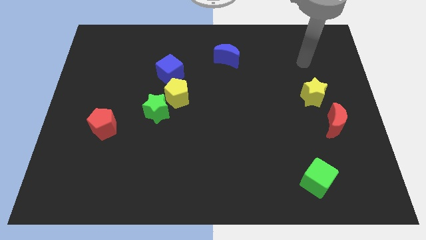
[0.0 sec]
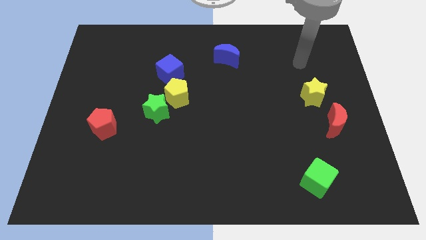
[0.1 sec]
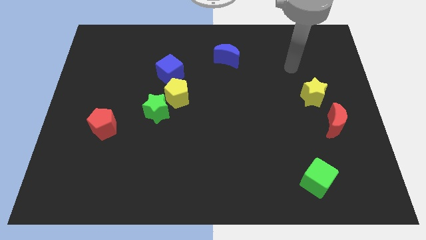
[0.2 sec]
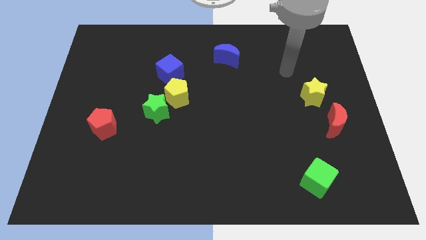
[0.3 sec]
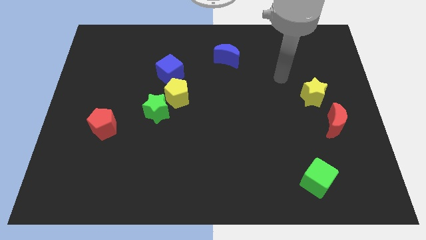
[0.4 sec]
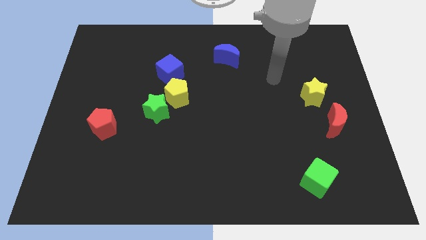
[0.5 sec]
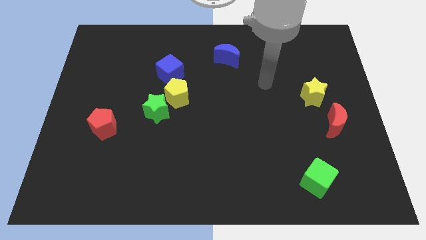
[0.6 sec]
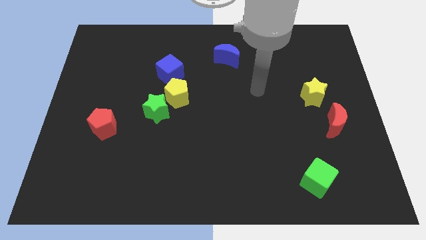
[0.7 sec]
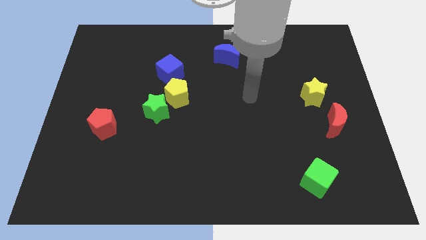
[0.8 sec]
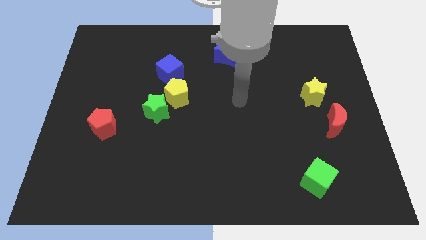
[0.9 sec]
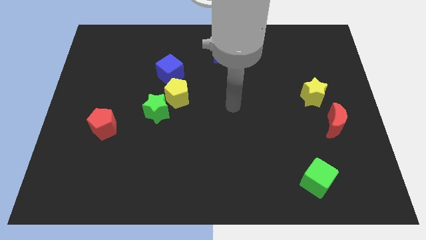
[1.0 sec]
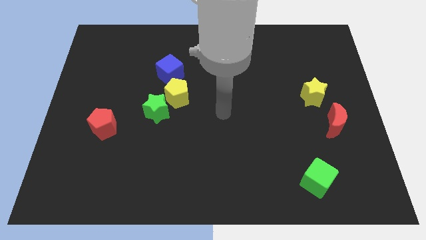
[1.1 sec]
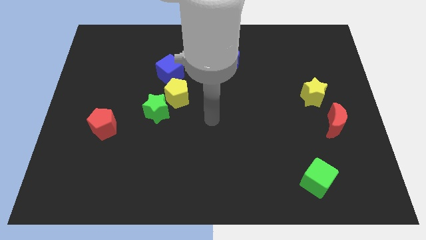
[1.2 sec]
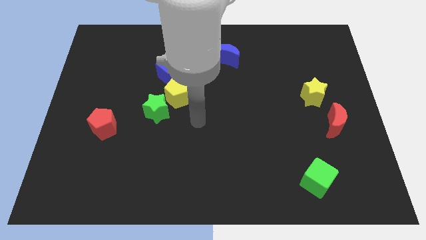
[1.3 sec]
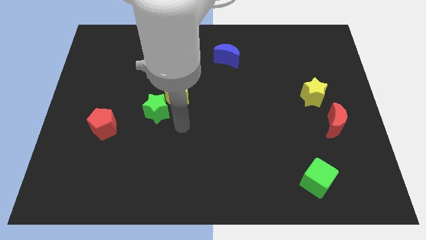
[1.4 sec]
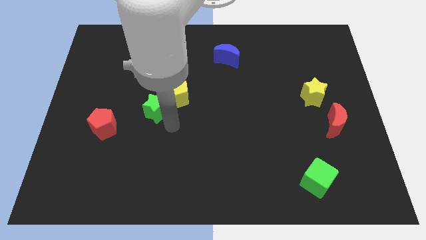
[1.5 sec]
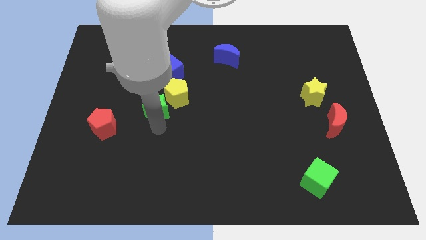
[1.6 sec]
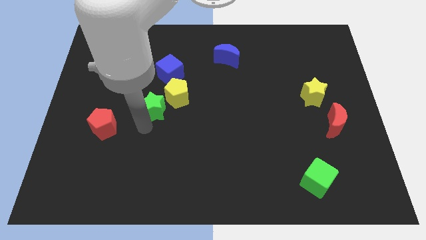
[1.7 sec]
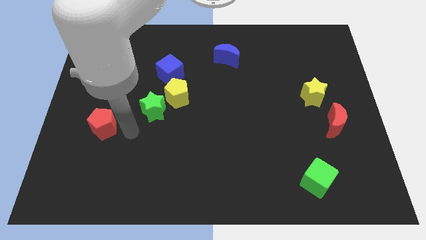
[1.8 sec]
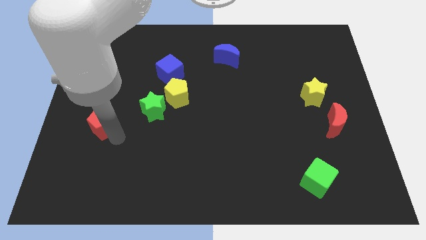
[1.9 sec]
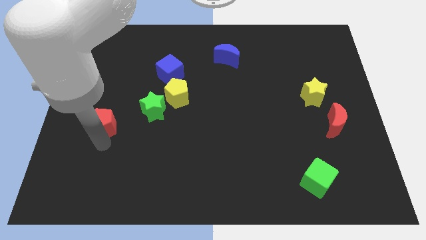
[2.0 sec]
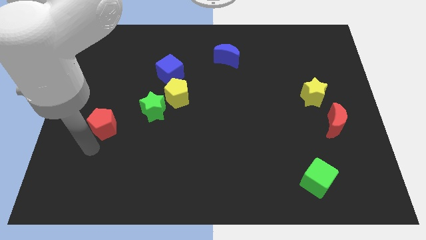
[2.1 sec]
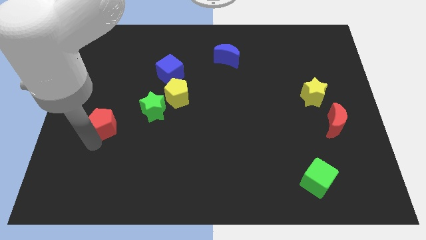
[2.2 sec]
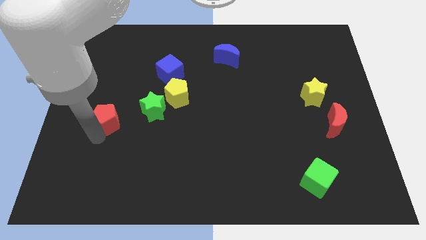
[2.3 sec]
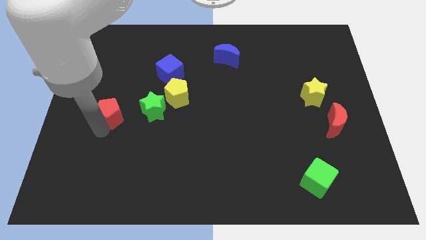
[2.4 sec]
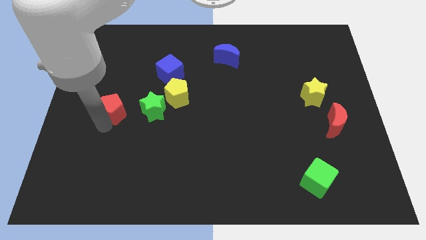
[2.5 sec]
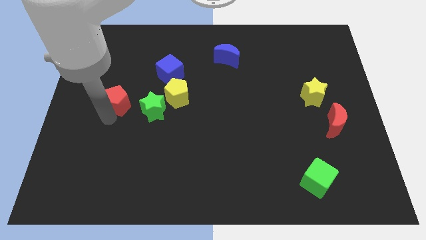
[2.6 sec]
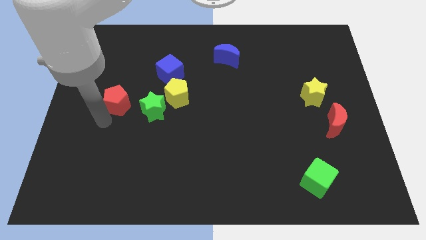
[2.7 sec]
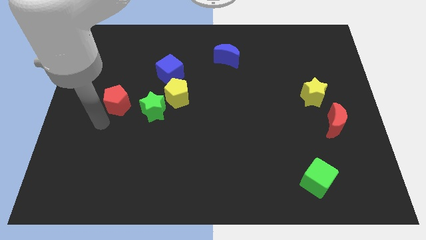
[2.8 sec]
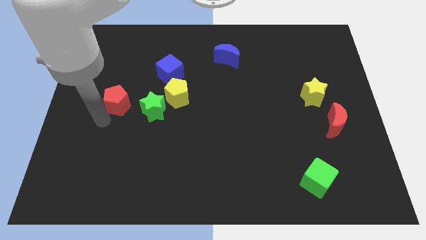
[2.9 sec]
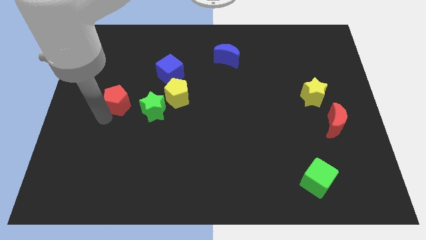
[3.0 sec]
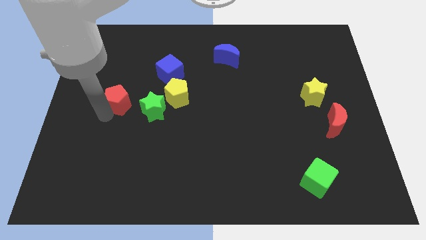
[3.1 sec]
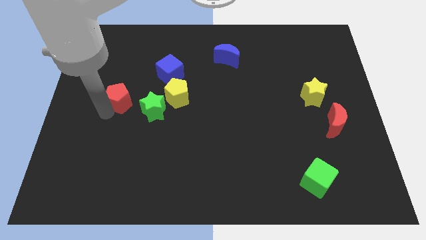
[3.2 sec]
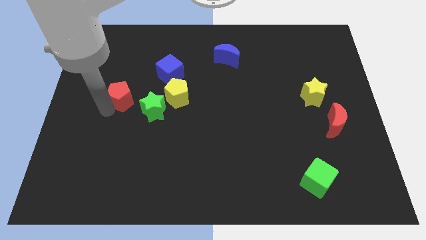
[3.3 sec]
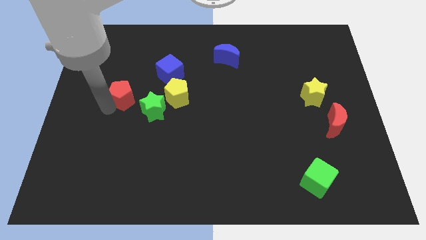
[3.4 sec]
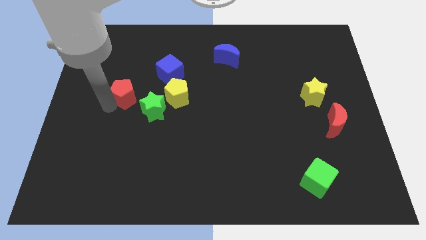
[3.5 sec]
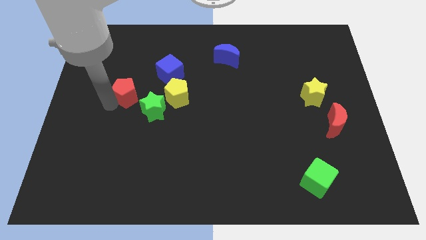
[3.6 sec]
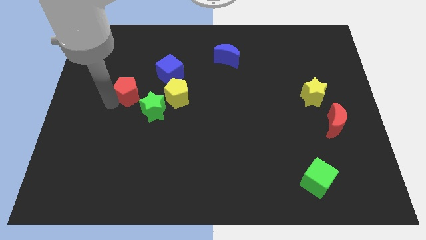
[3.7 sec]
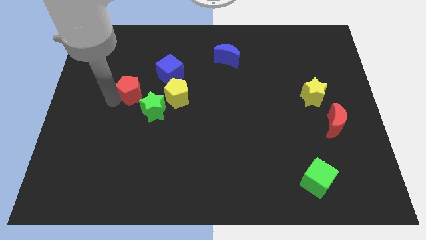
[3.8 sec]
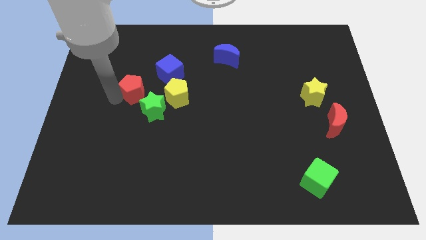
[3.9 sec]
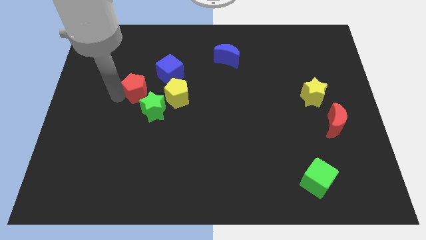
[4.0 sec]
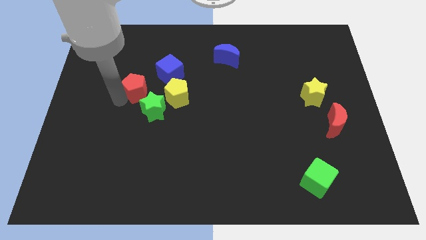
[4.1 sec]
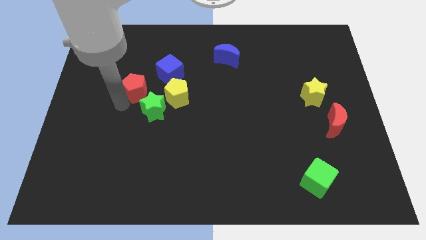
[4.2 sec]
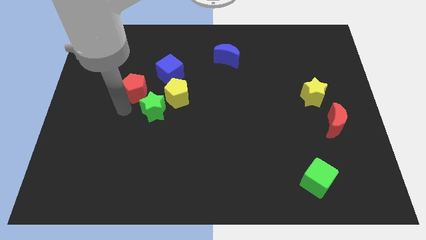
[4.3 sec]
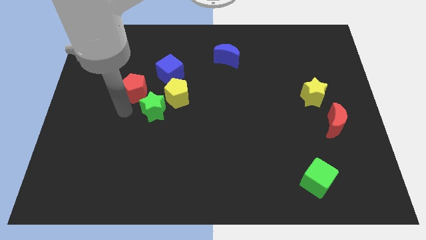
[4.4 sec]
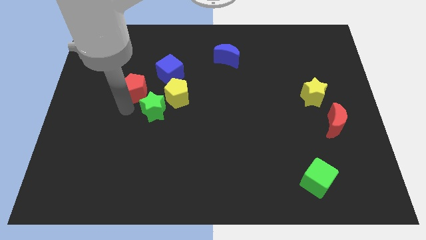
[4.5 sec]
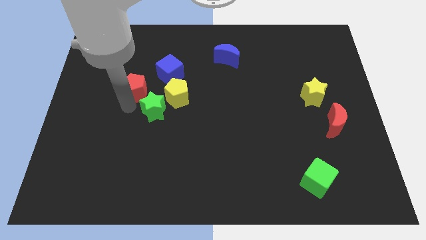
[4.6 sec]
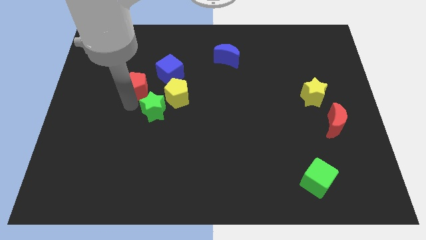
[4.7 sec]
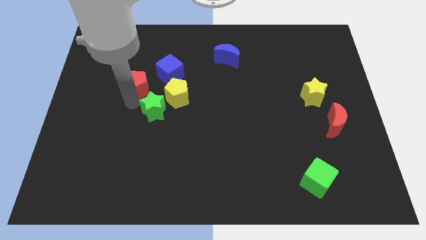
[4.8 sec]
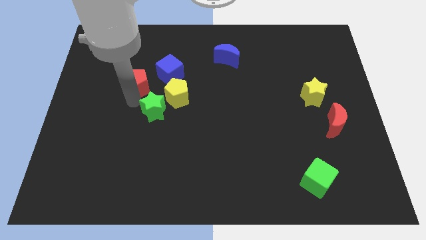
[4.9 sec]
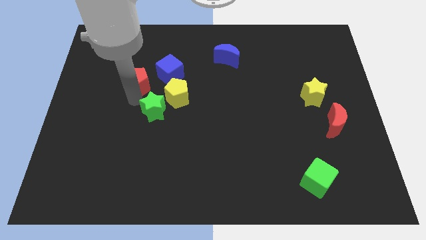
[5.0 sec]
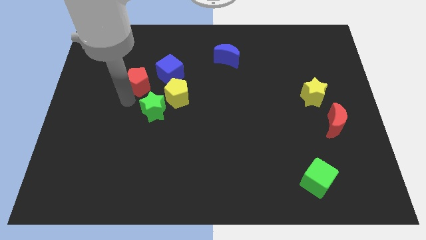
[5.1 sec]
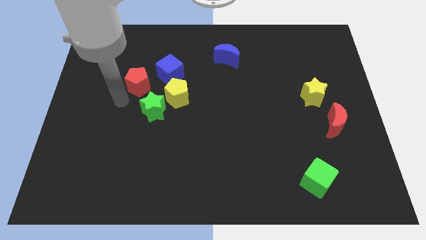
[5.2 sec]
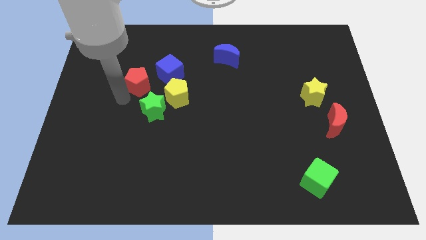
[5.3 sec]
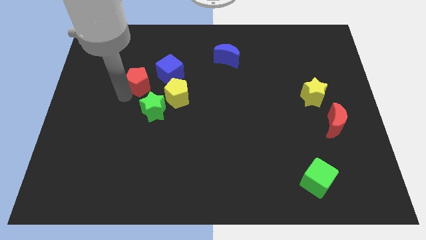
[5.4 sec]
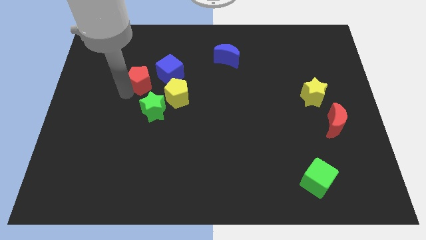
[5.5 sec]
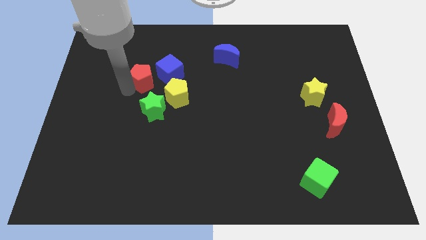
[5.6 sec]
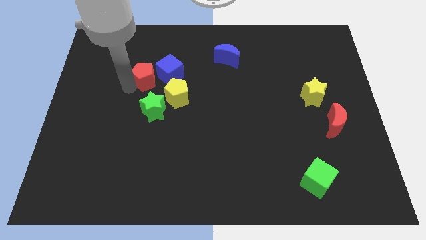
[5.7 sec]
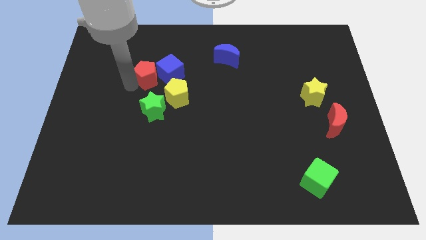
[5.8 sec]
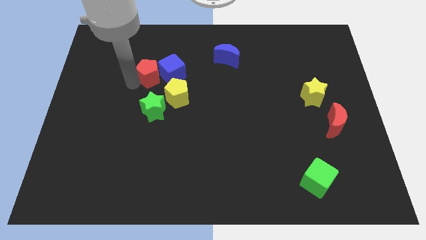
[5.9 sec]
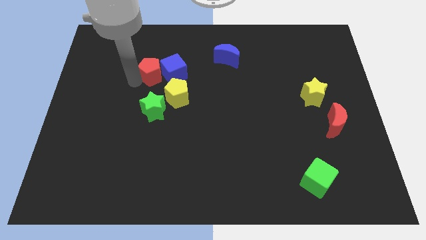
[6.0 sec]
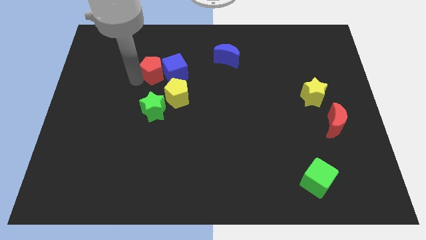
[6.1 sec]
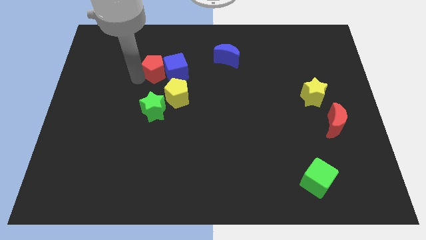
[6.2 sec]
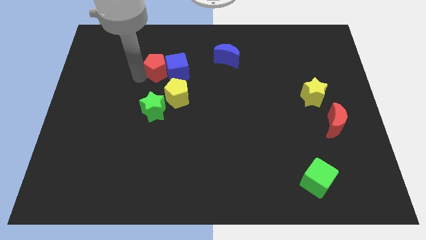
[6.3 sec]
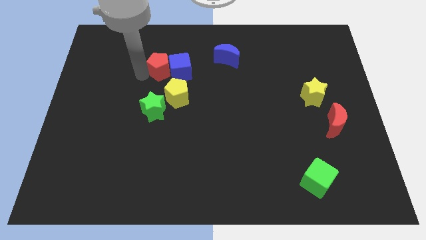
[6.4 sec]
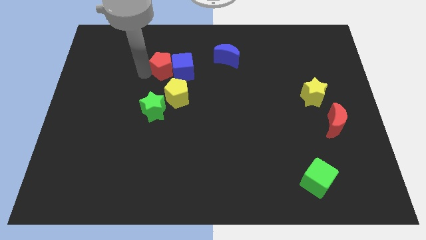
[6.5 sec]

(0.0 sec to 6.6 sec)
move the red pentagon upwards and right diagonally

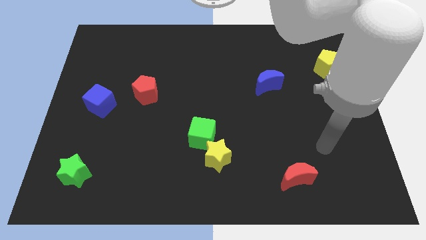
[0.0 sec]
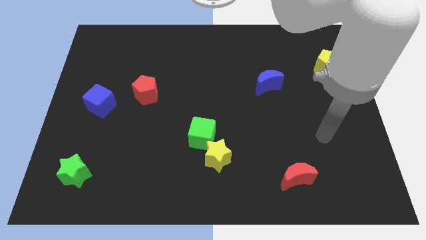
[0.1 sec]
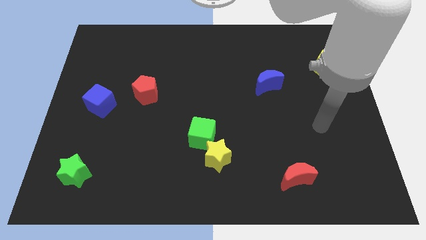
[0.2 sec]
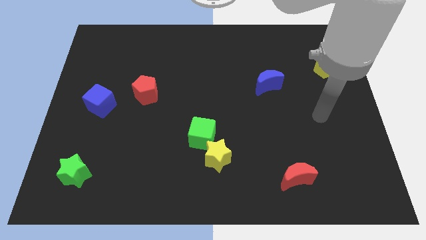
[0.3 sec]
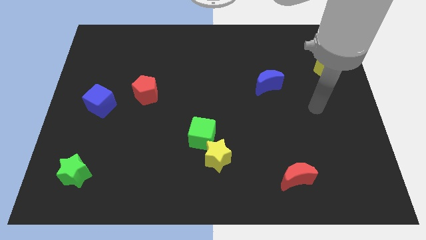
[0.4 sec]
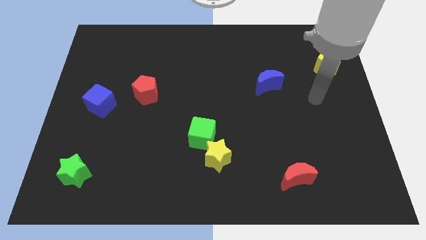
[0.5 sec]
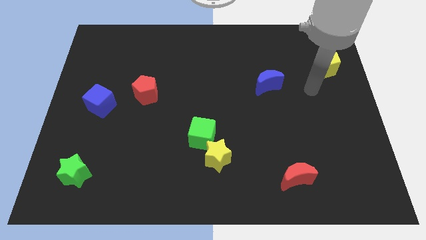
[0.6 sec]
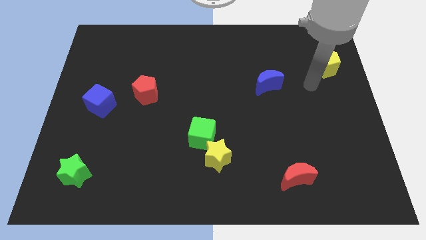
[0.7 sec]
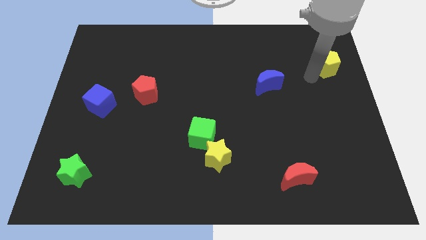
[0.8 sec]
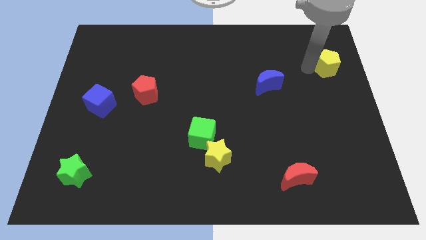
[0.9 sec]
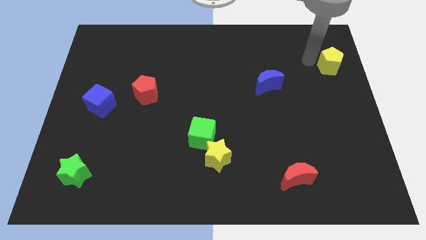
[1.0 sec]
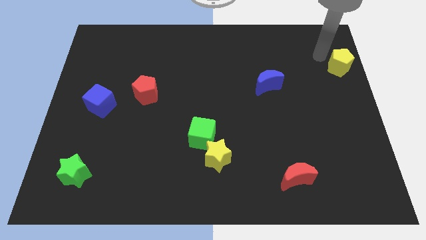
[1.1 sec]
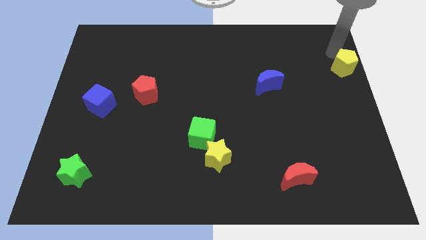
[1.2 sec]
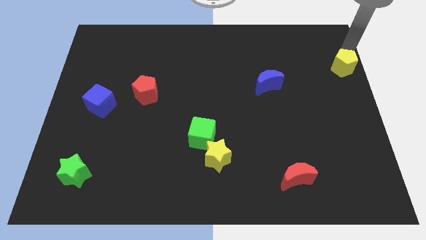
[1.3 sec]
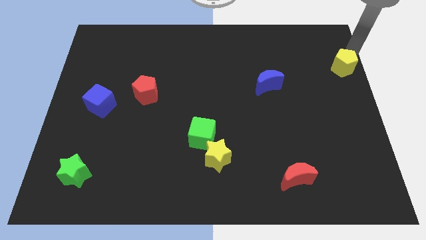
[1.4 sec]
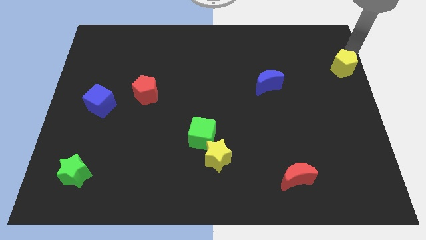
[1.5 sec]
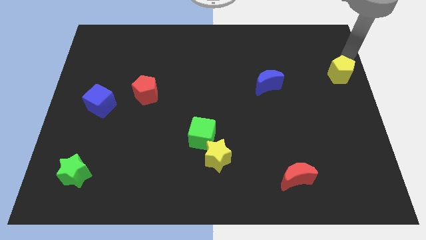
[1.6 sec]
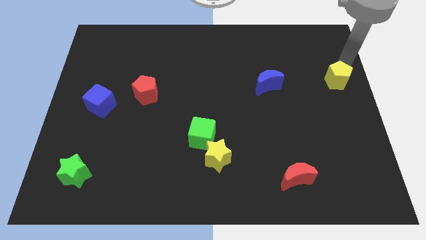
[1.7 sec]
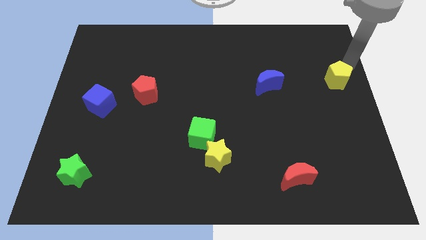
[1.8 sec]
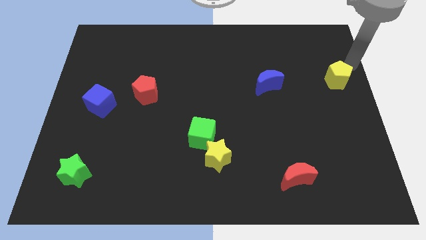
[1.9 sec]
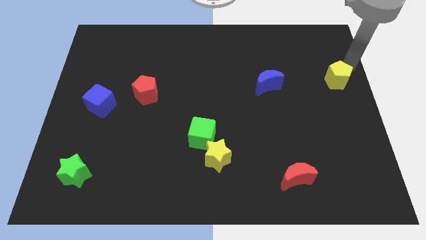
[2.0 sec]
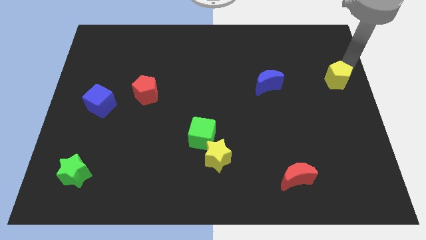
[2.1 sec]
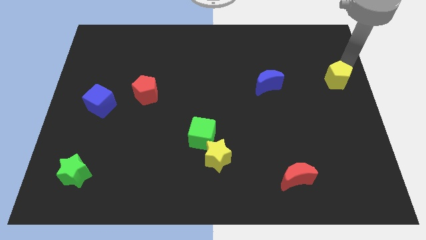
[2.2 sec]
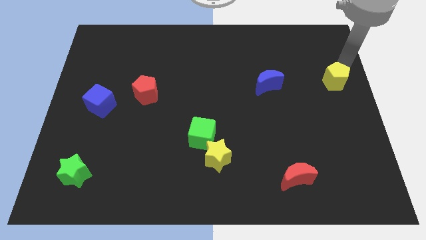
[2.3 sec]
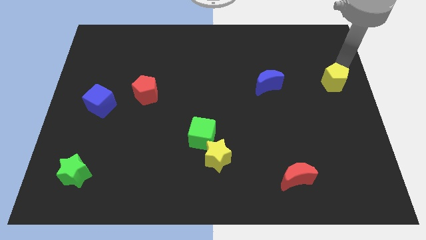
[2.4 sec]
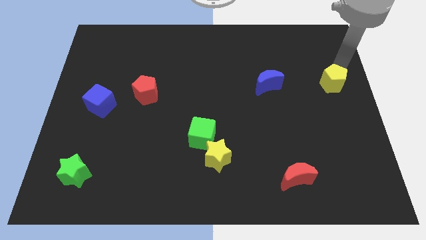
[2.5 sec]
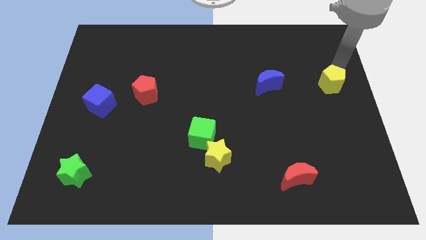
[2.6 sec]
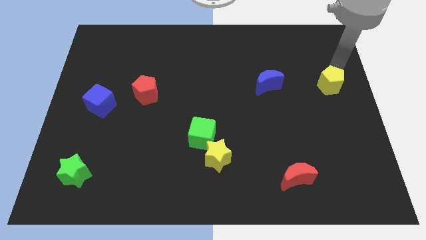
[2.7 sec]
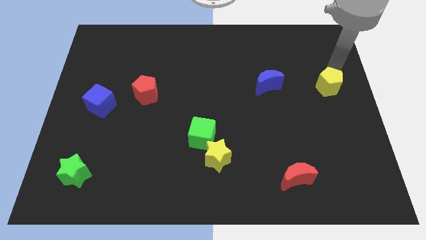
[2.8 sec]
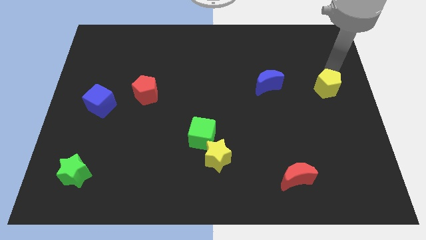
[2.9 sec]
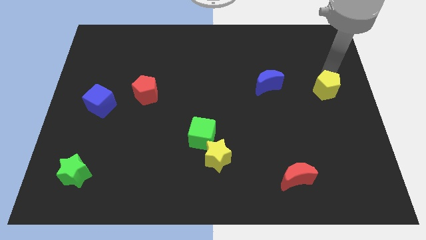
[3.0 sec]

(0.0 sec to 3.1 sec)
slide the yellow pentagon somewhat downwards
